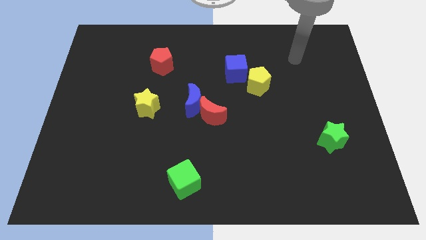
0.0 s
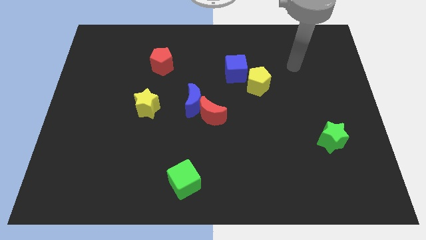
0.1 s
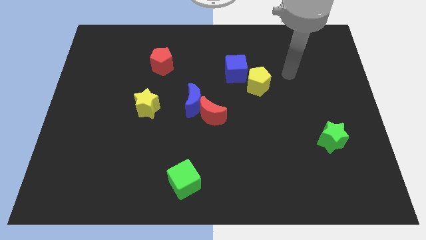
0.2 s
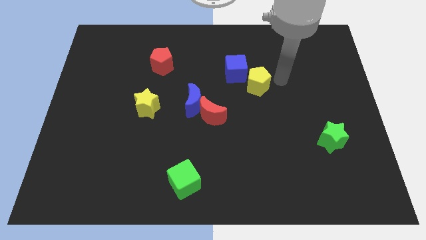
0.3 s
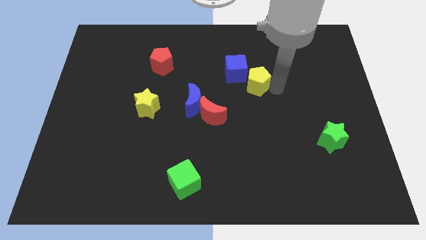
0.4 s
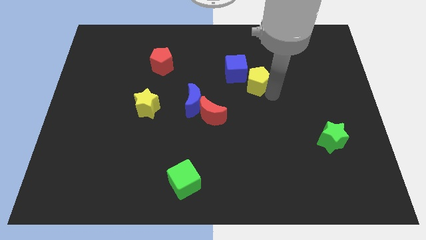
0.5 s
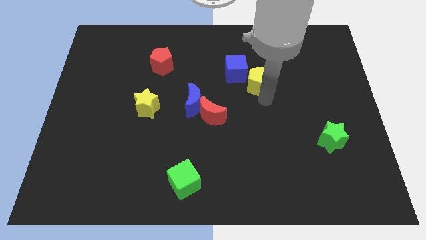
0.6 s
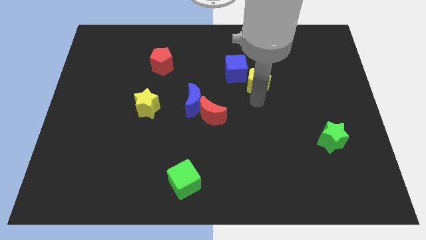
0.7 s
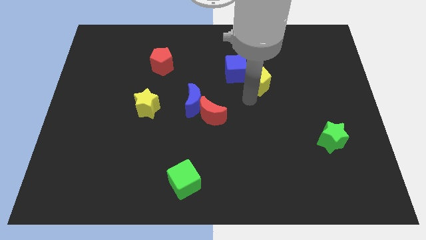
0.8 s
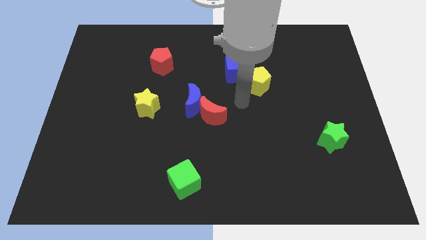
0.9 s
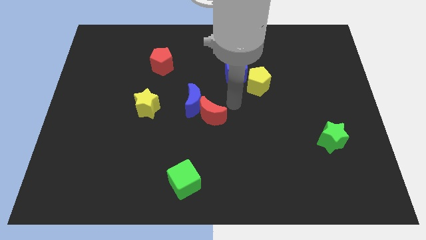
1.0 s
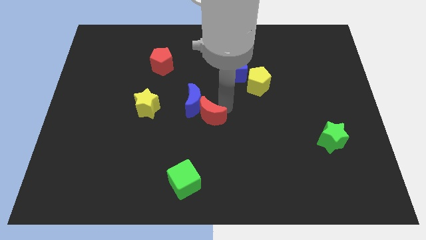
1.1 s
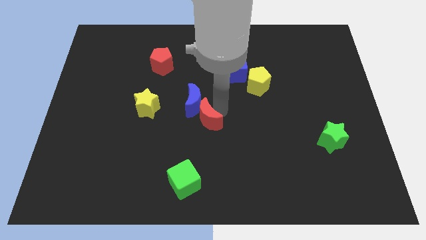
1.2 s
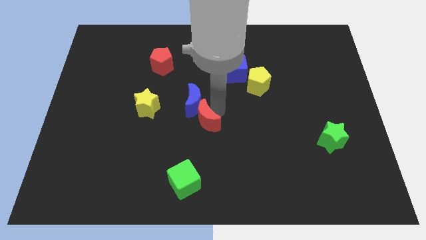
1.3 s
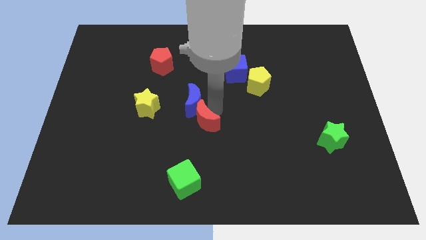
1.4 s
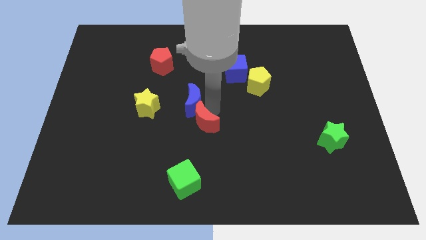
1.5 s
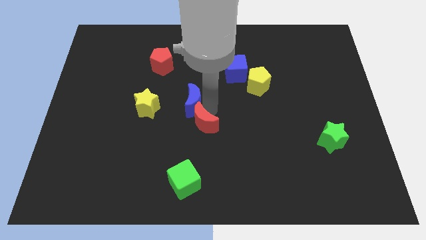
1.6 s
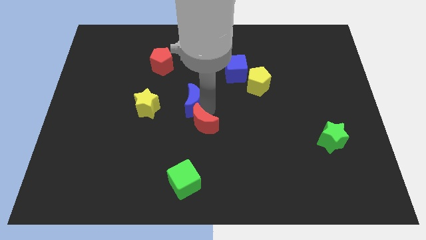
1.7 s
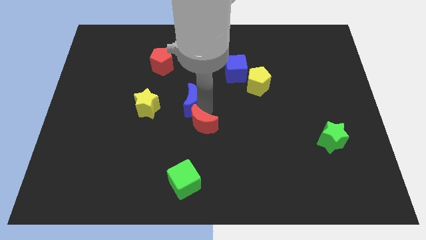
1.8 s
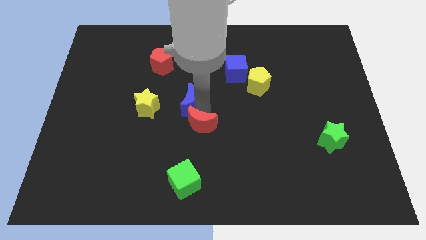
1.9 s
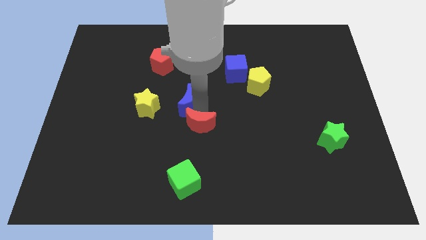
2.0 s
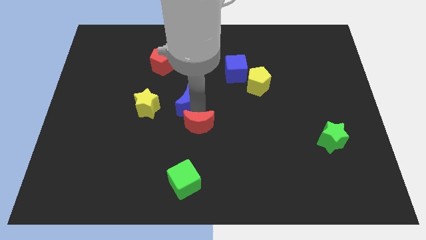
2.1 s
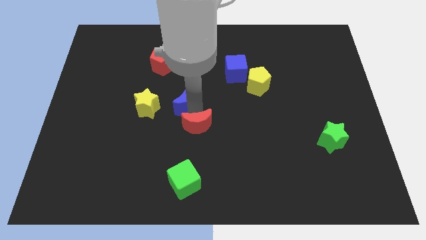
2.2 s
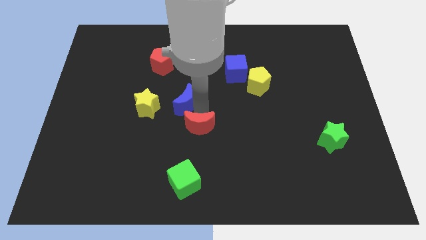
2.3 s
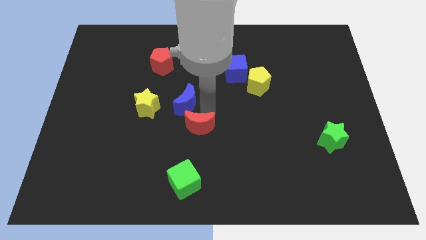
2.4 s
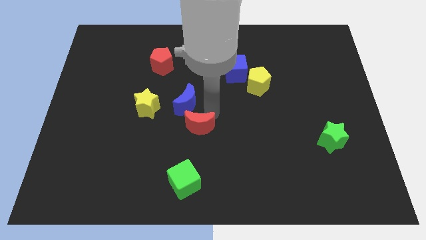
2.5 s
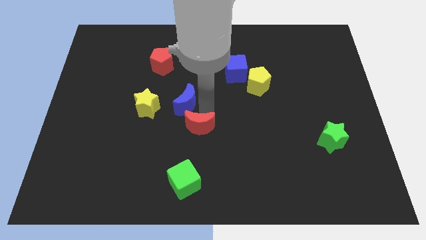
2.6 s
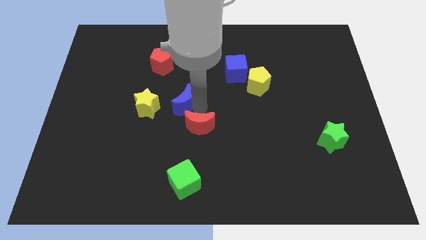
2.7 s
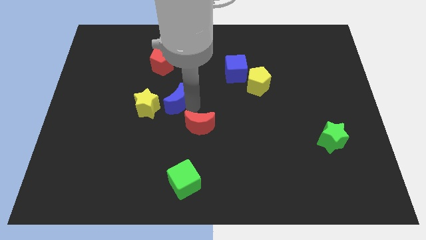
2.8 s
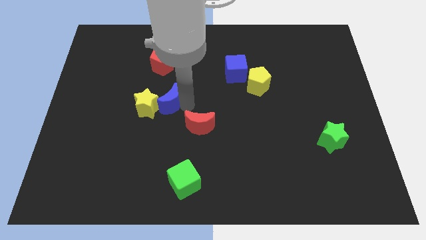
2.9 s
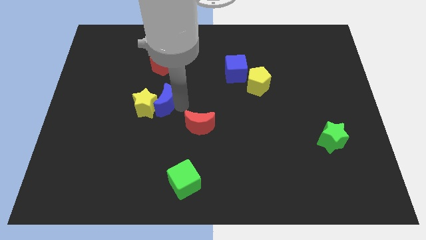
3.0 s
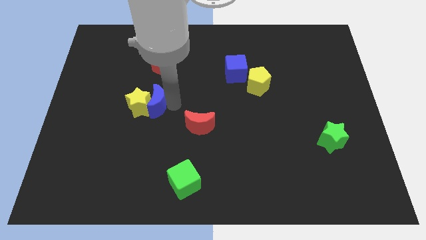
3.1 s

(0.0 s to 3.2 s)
move the blue moon to the left slightly

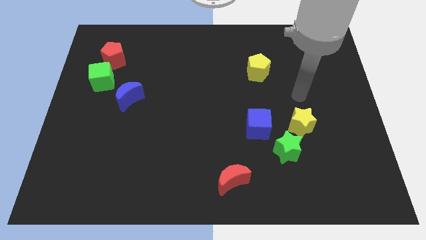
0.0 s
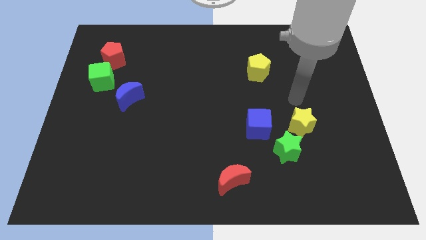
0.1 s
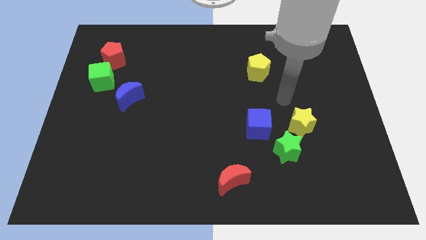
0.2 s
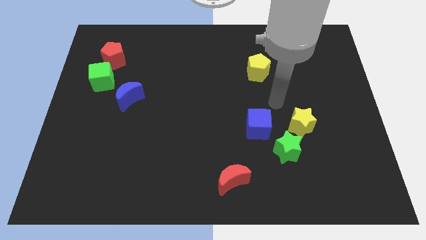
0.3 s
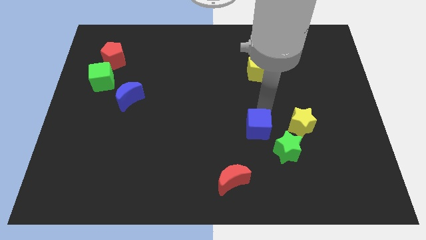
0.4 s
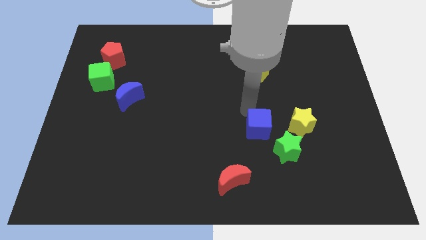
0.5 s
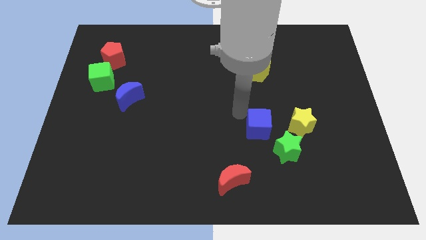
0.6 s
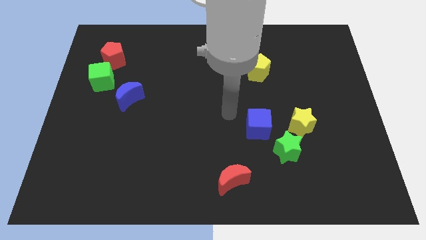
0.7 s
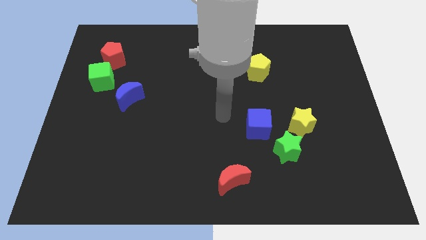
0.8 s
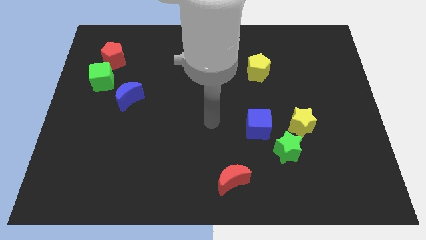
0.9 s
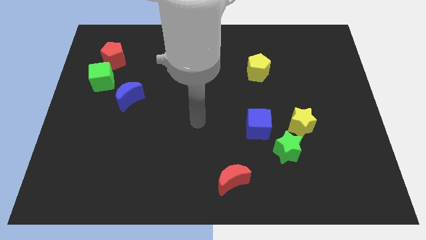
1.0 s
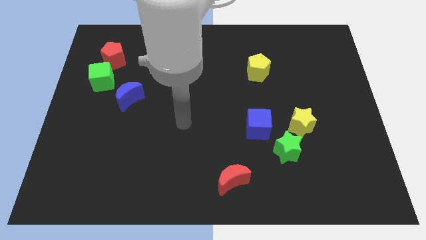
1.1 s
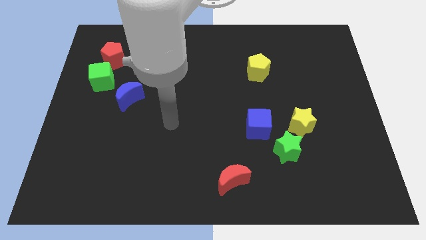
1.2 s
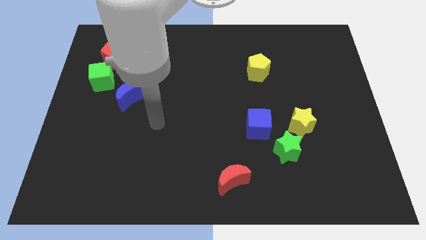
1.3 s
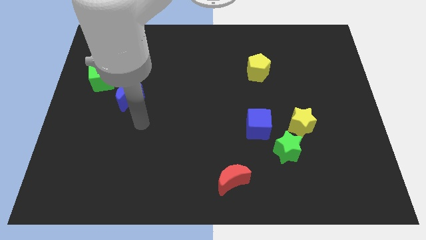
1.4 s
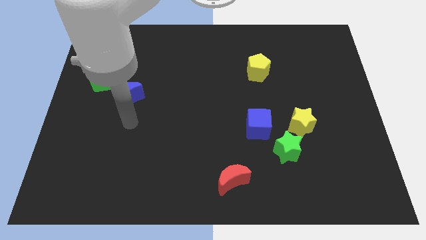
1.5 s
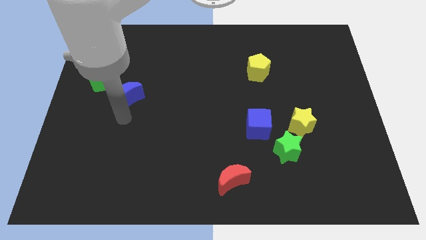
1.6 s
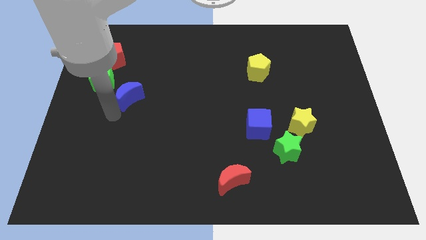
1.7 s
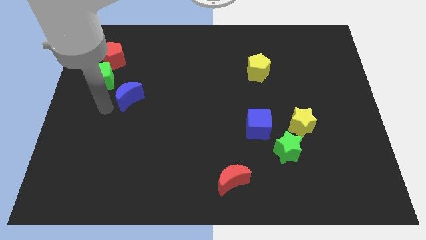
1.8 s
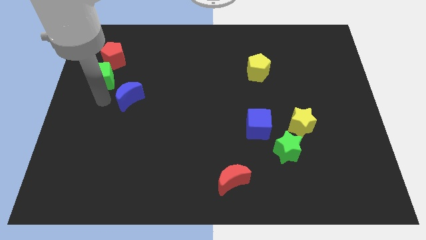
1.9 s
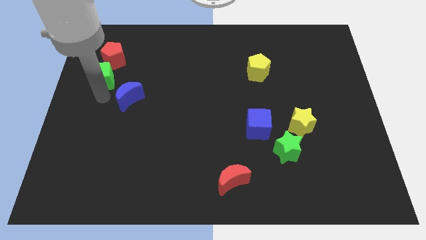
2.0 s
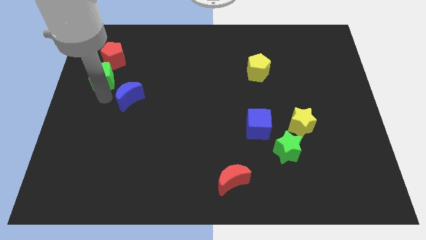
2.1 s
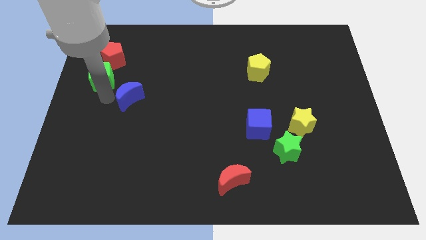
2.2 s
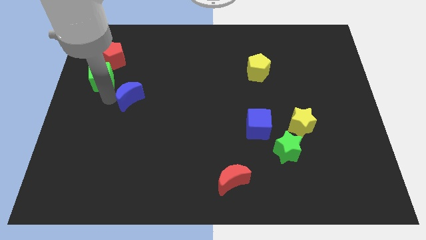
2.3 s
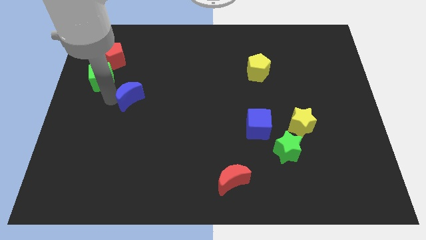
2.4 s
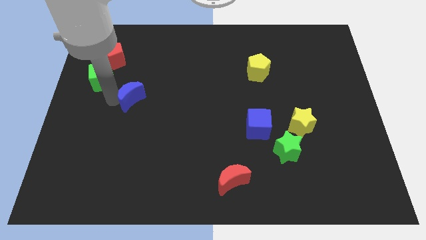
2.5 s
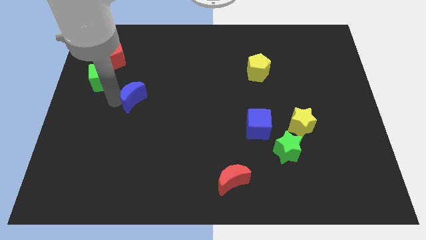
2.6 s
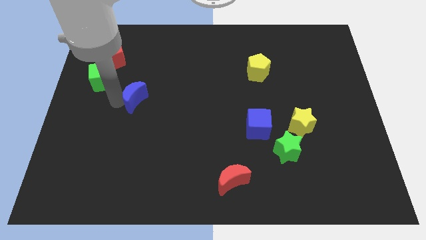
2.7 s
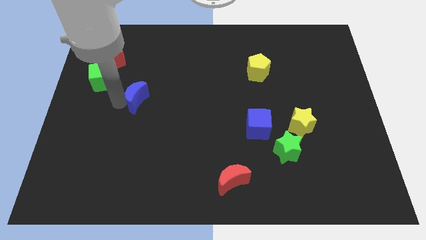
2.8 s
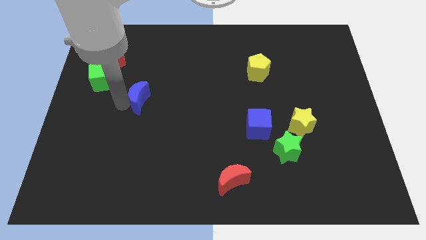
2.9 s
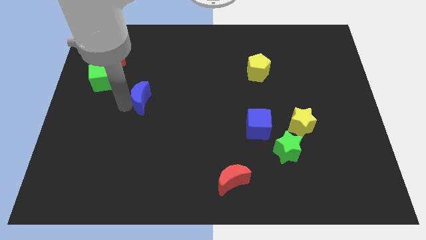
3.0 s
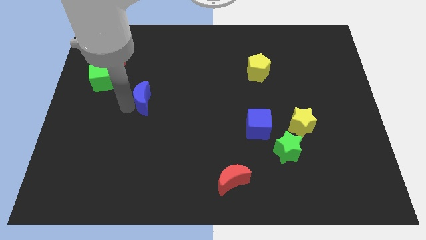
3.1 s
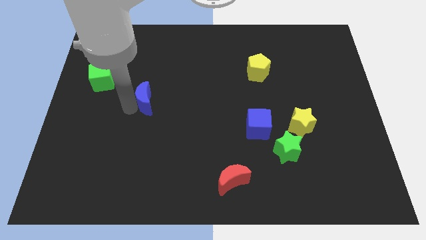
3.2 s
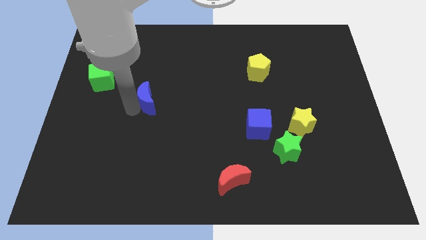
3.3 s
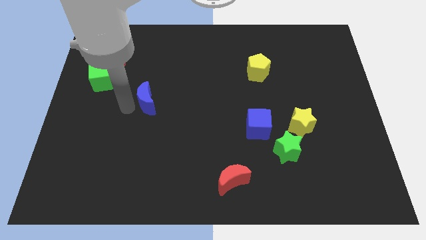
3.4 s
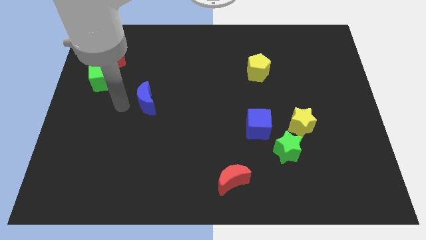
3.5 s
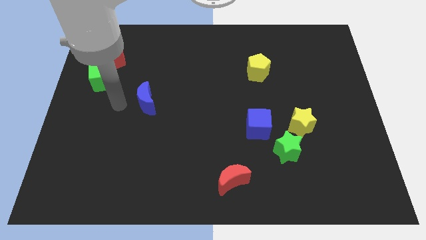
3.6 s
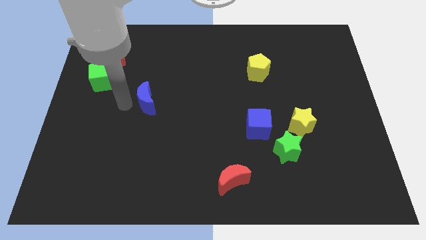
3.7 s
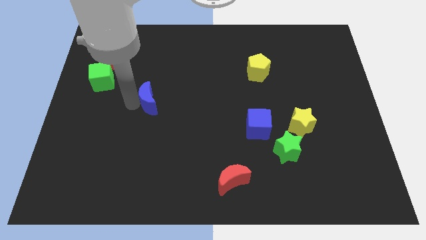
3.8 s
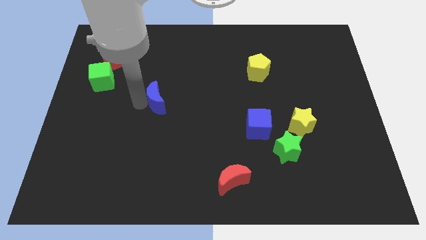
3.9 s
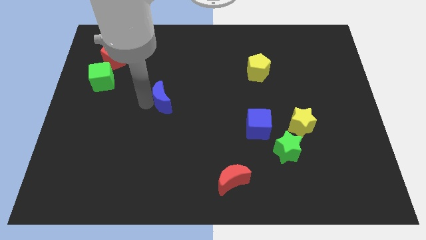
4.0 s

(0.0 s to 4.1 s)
slide the blue moon somewhat to the right

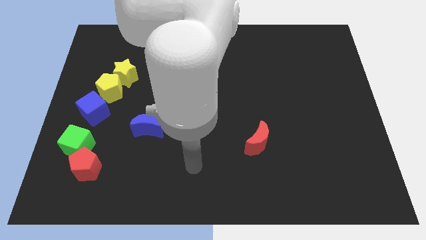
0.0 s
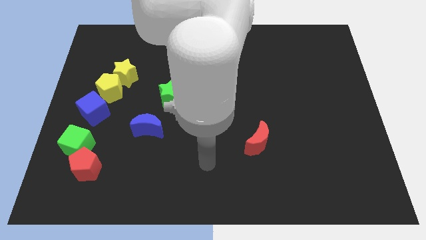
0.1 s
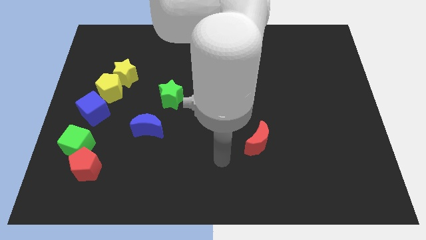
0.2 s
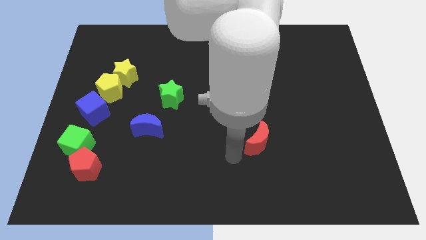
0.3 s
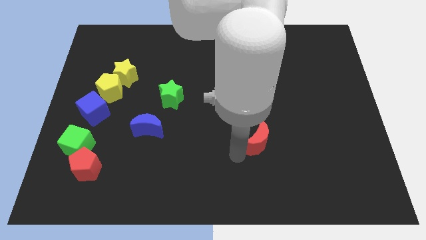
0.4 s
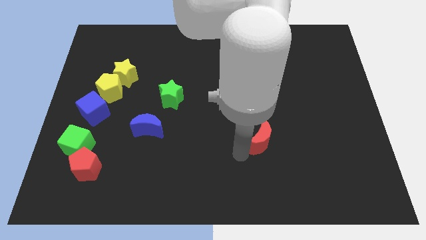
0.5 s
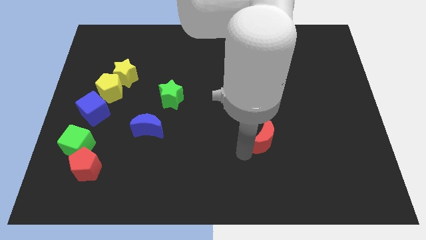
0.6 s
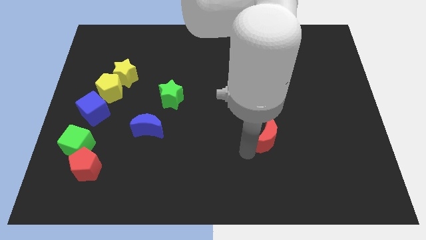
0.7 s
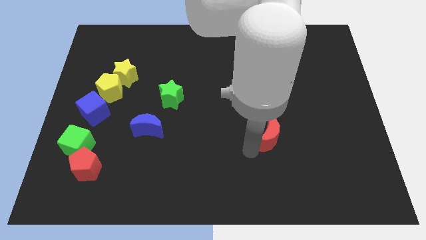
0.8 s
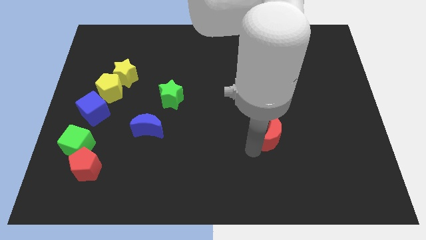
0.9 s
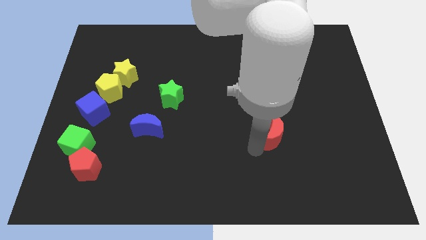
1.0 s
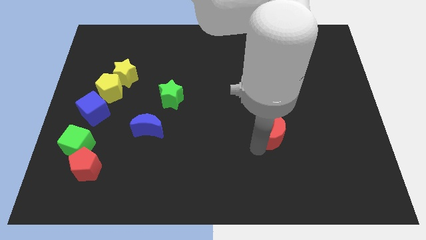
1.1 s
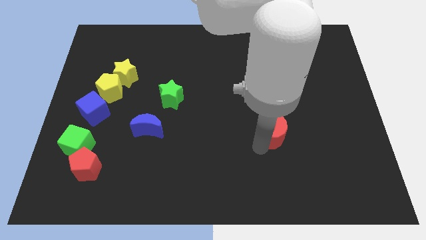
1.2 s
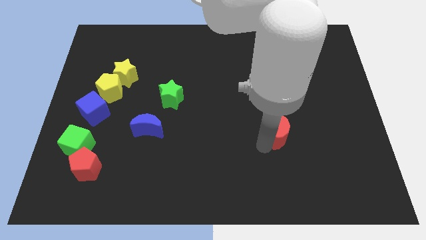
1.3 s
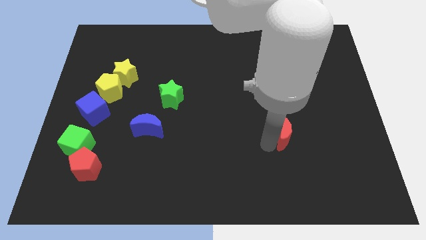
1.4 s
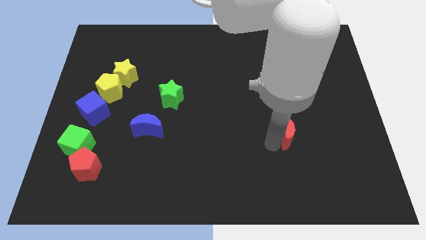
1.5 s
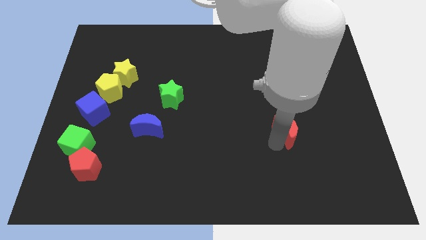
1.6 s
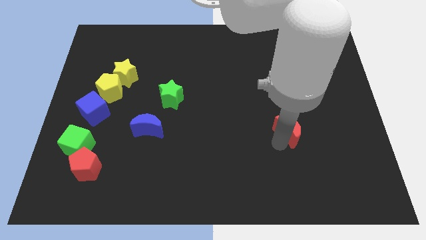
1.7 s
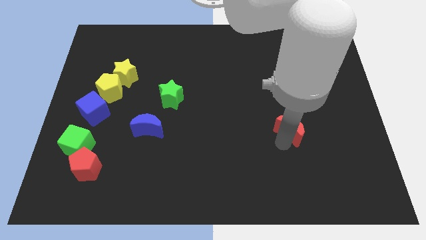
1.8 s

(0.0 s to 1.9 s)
slide the red moon up and to the right diagonally slightly
